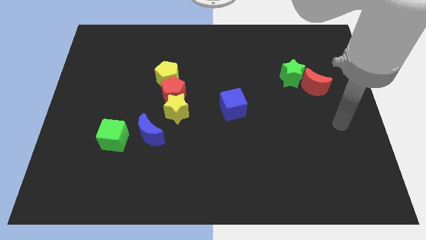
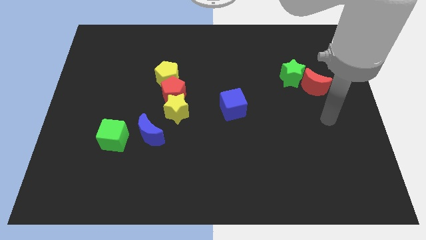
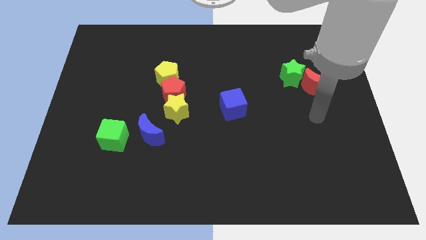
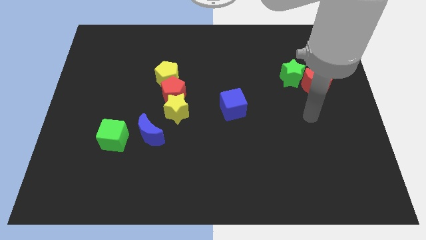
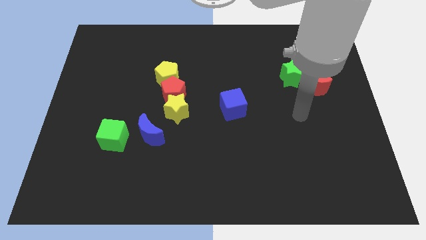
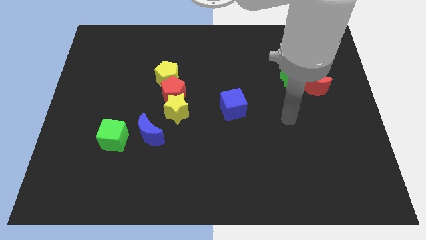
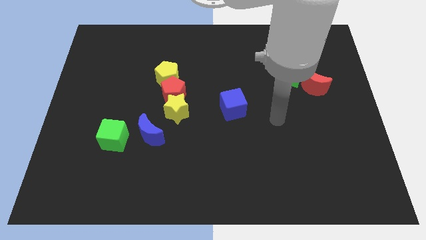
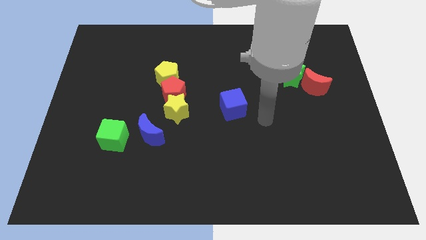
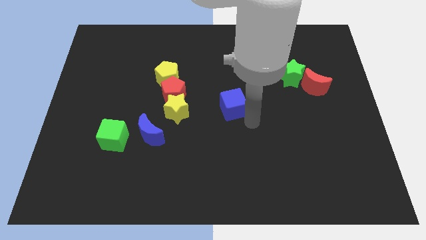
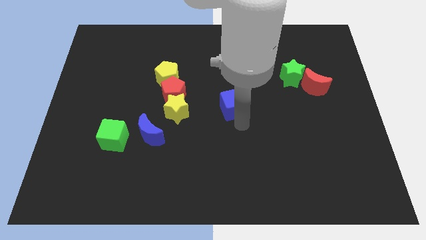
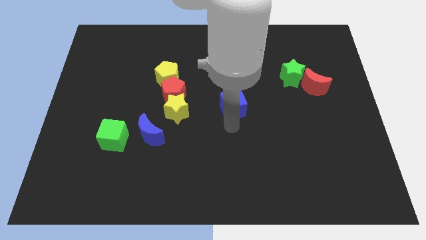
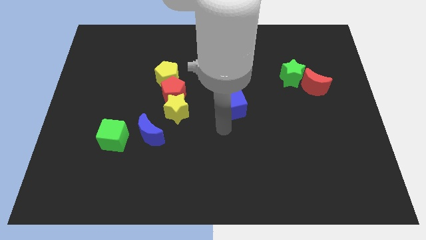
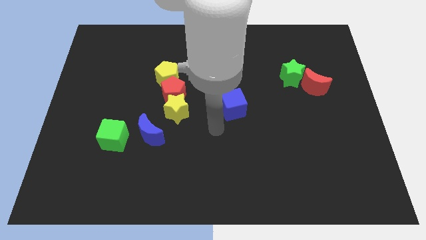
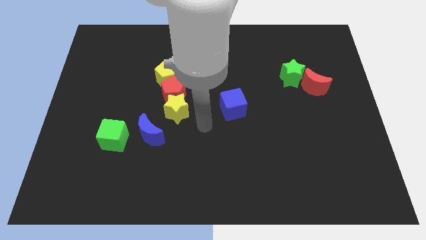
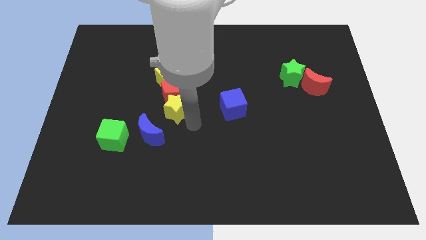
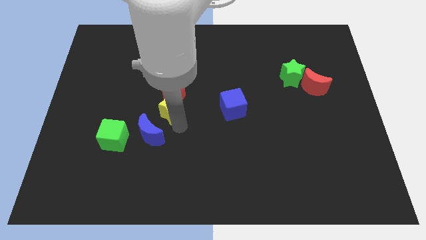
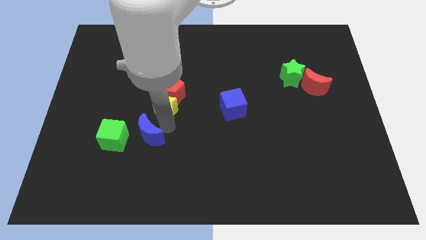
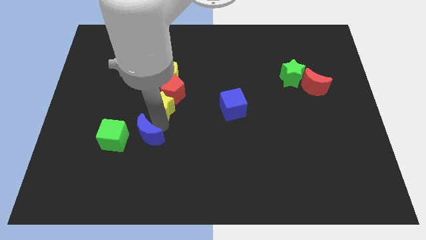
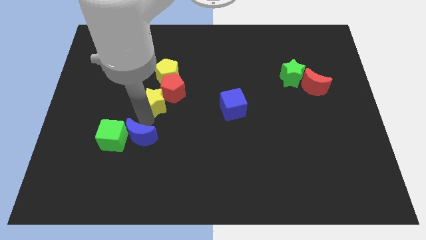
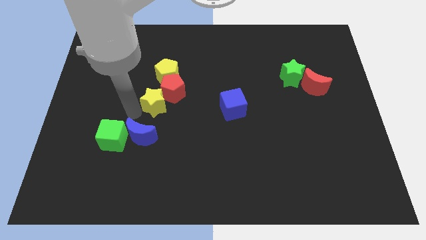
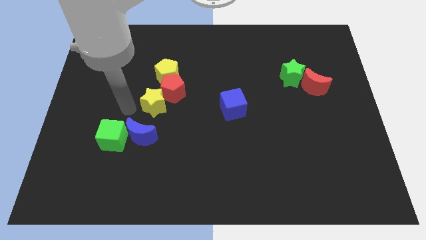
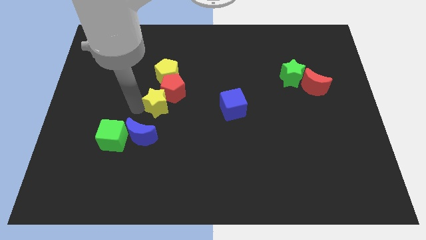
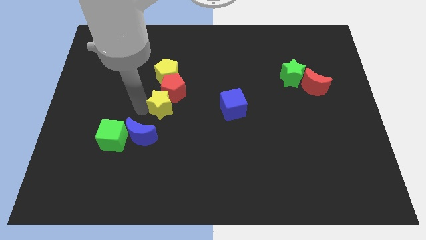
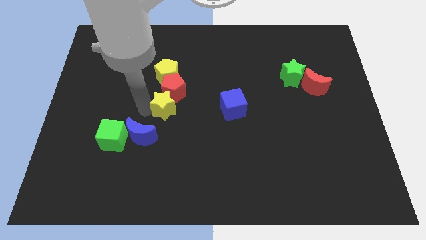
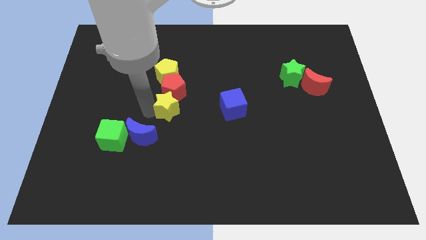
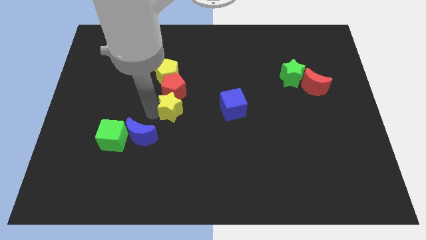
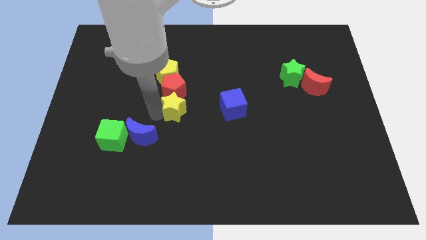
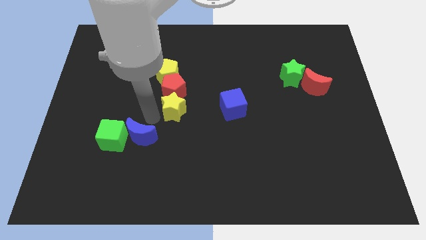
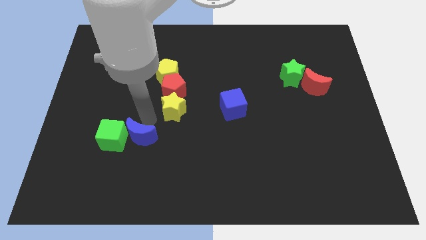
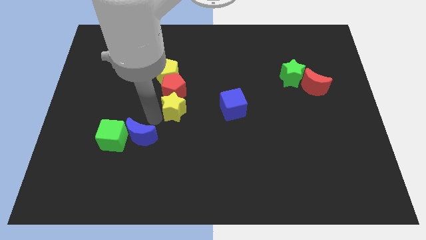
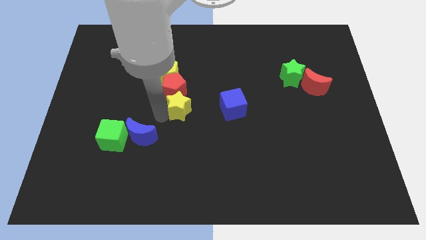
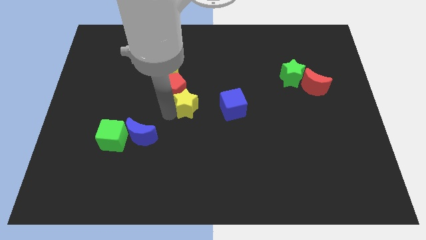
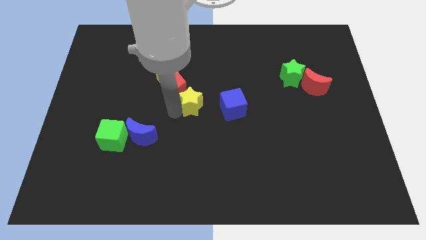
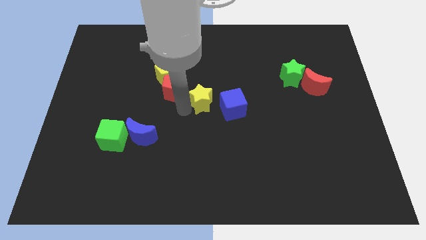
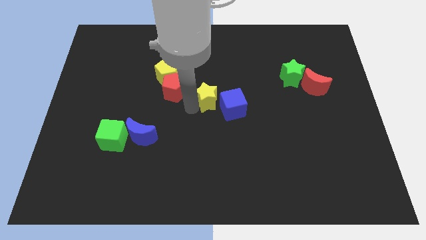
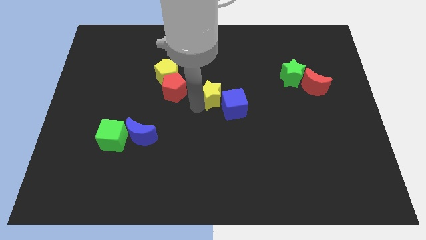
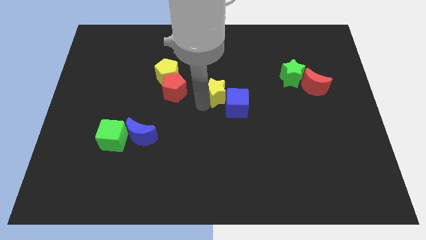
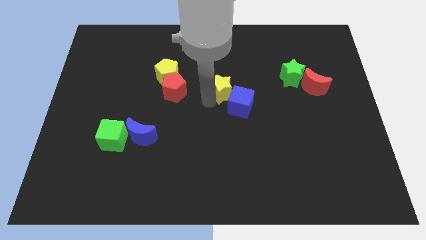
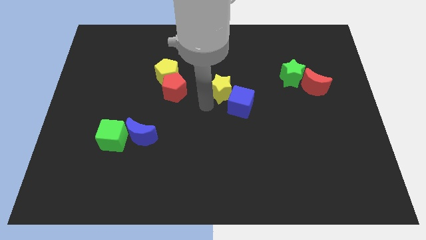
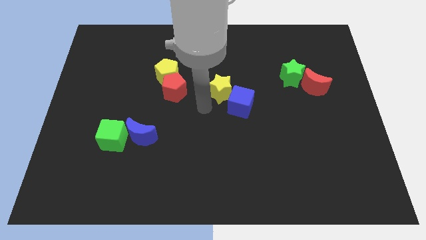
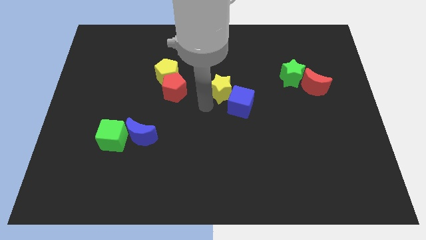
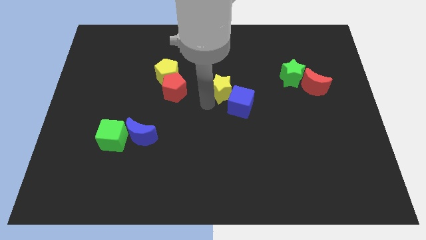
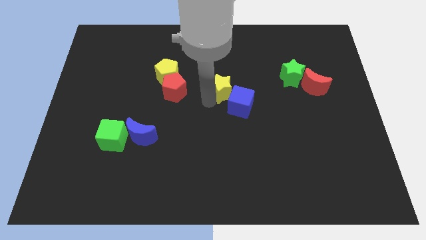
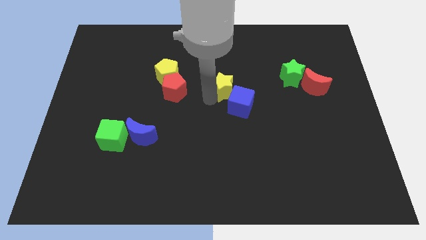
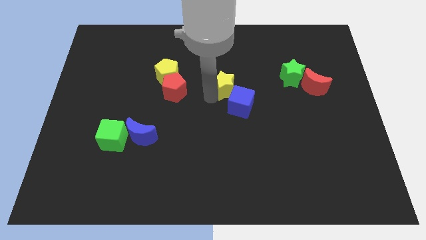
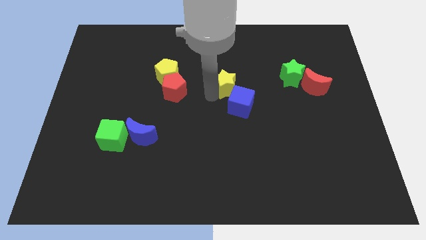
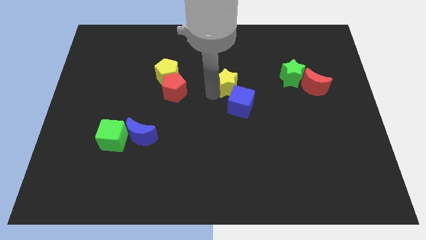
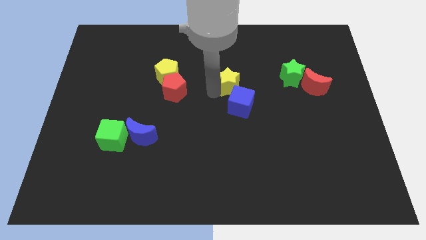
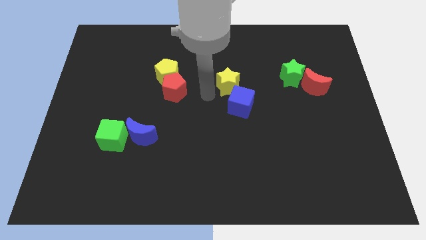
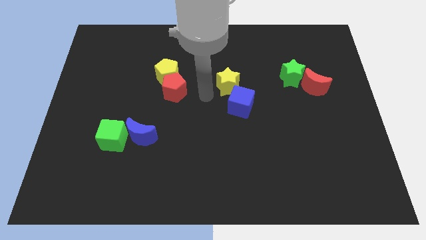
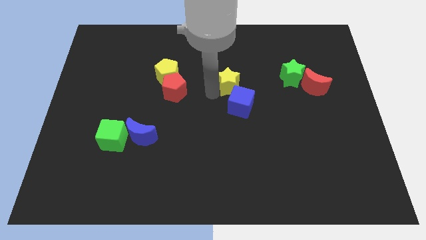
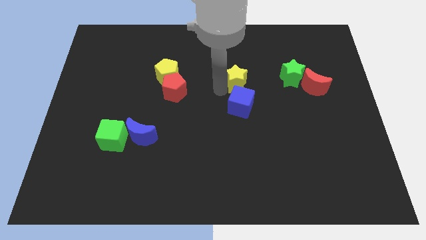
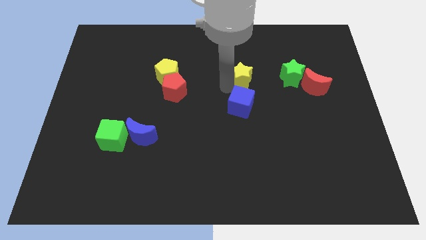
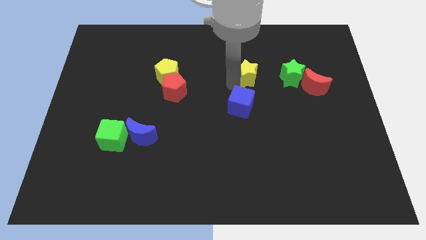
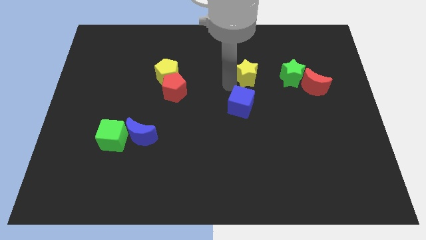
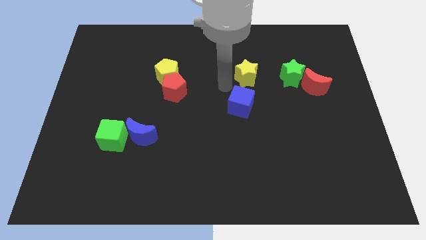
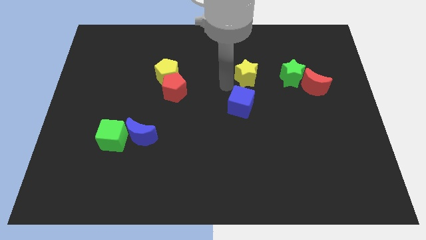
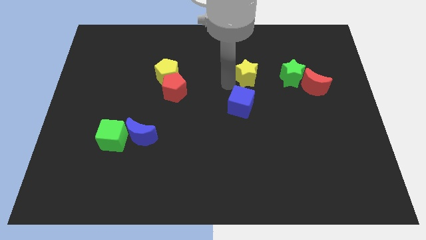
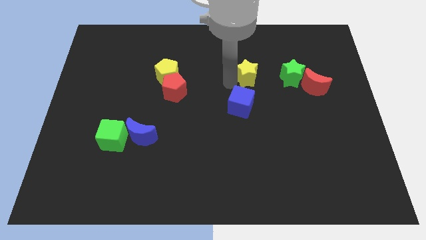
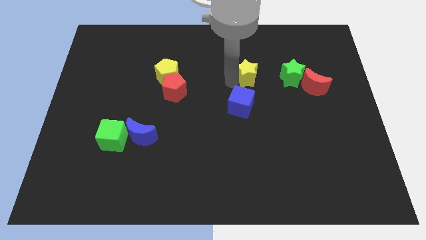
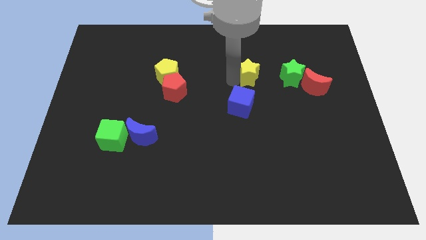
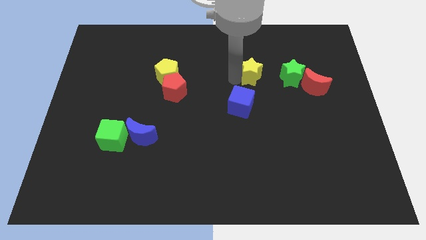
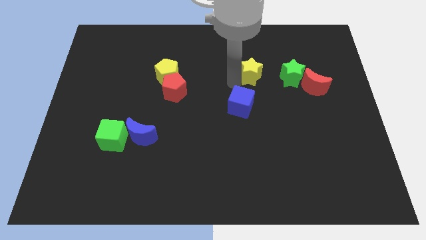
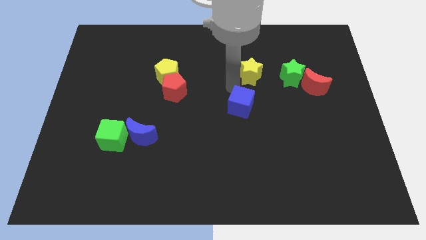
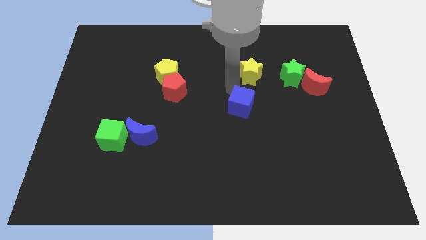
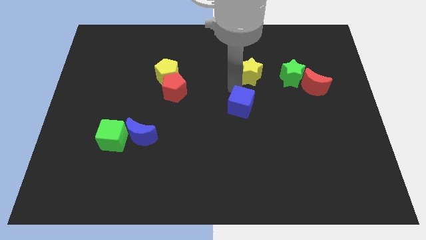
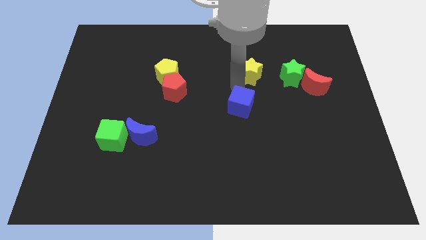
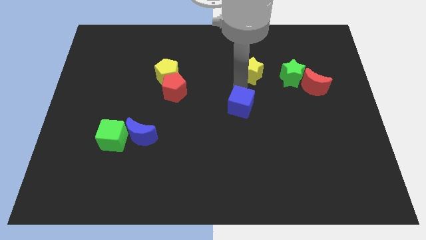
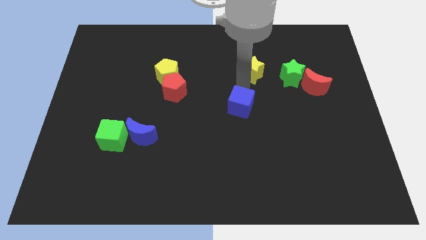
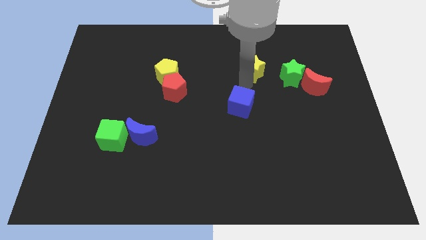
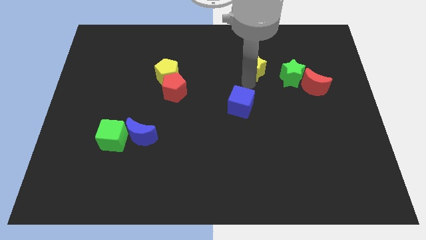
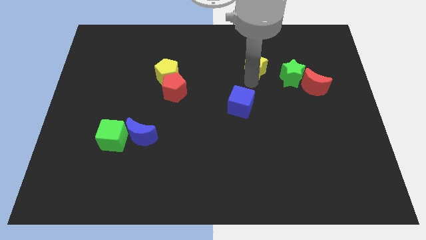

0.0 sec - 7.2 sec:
push the yellow star diagonally up and to the left of the green star
